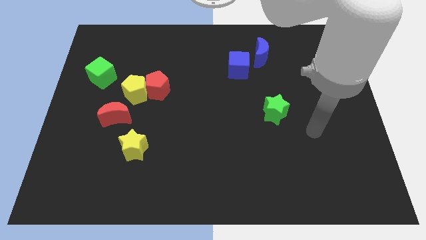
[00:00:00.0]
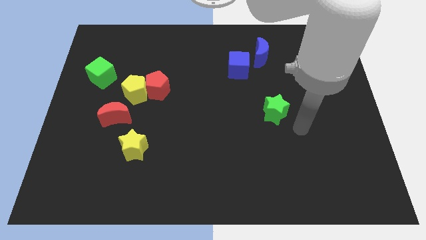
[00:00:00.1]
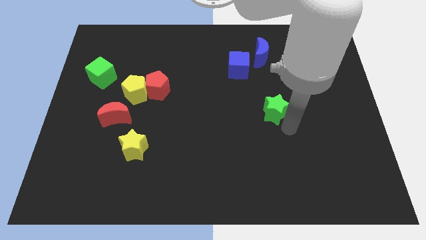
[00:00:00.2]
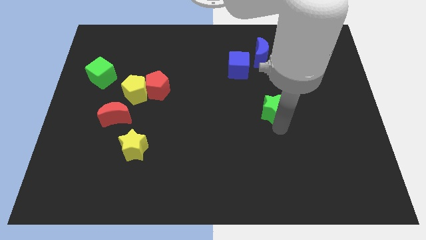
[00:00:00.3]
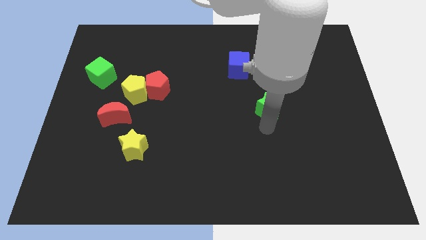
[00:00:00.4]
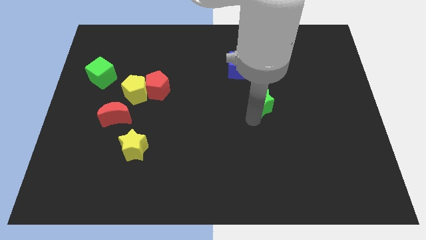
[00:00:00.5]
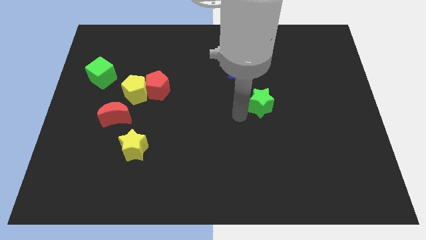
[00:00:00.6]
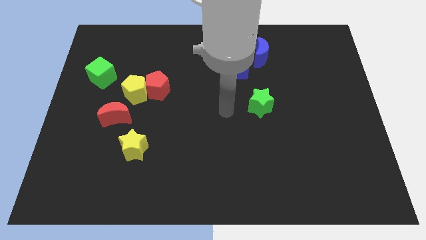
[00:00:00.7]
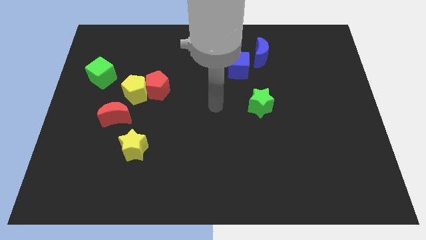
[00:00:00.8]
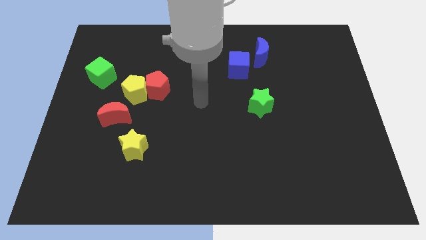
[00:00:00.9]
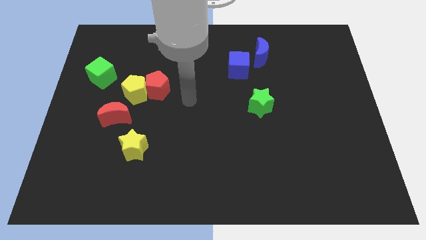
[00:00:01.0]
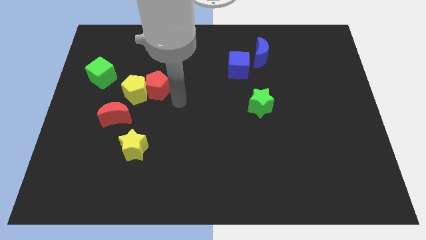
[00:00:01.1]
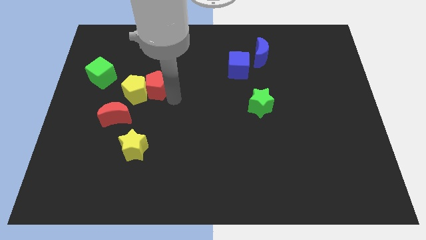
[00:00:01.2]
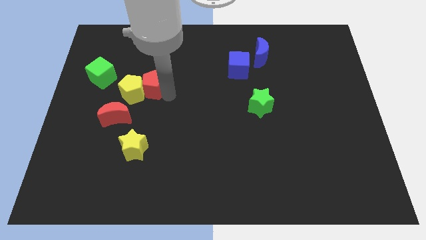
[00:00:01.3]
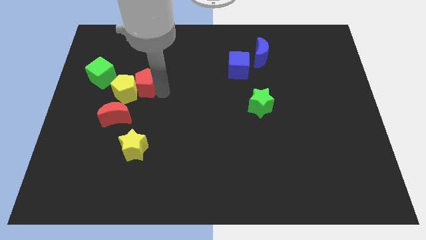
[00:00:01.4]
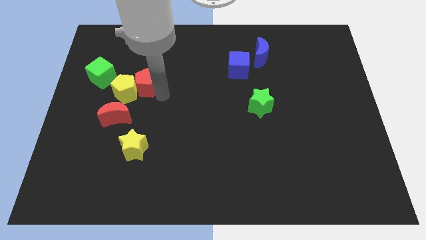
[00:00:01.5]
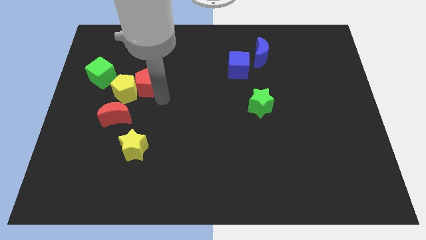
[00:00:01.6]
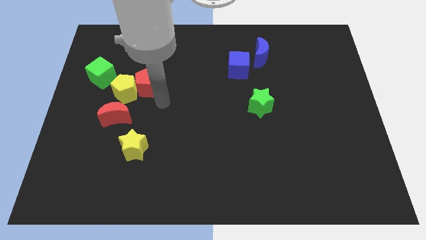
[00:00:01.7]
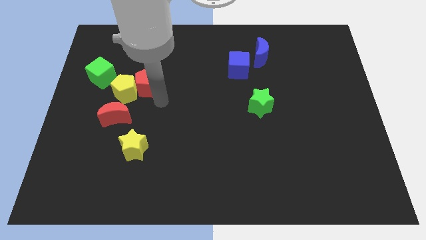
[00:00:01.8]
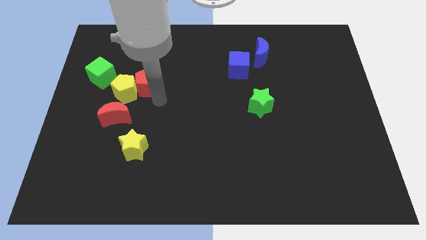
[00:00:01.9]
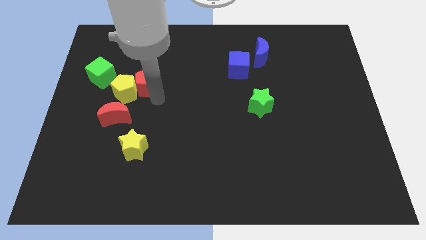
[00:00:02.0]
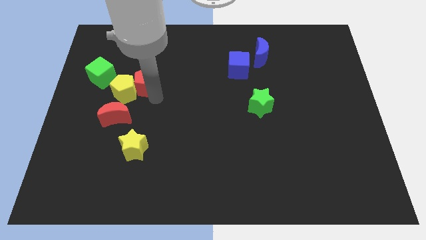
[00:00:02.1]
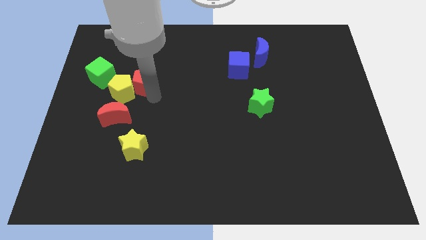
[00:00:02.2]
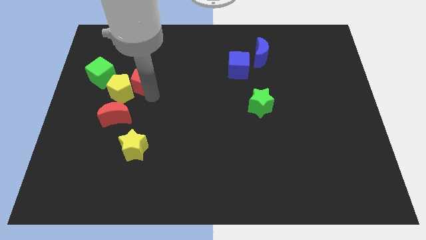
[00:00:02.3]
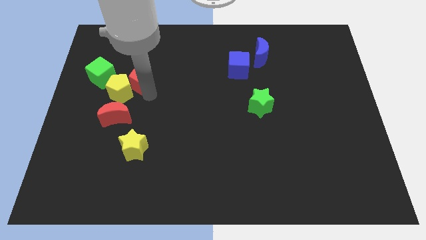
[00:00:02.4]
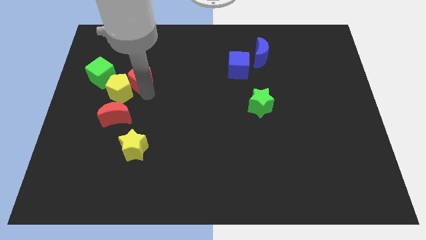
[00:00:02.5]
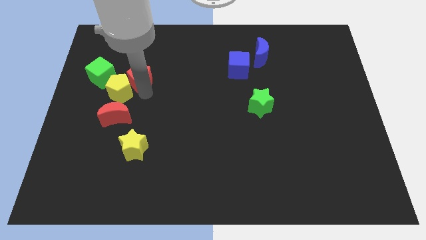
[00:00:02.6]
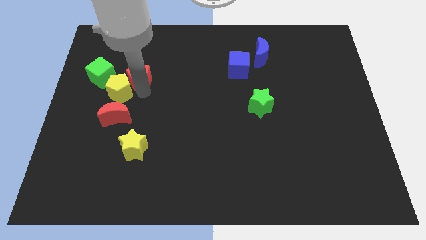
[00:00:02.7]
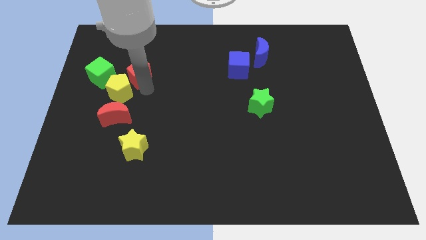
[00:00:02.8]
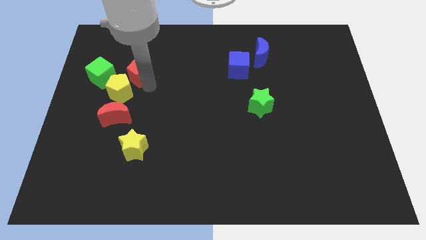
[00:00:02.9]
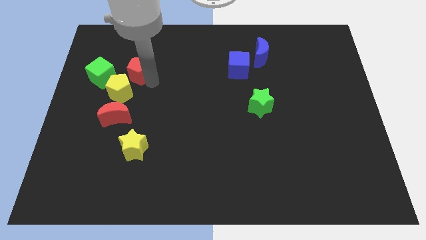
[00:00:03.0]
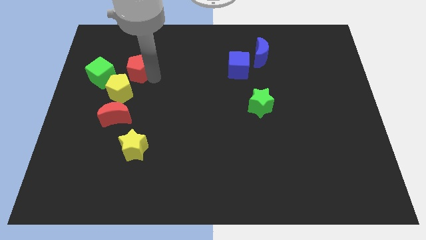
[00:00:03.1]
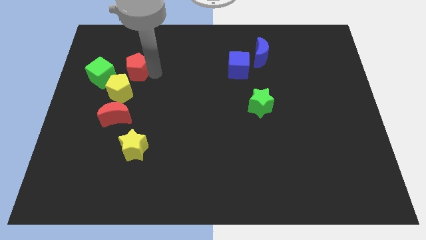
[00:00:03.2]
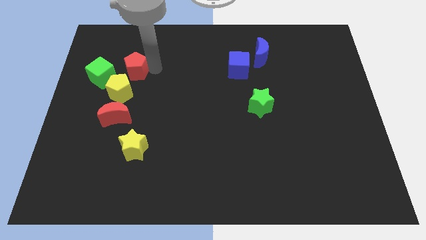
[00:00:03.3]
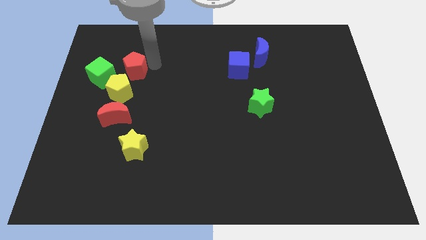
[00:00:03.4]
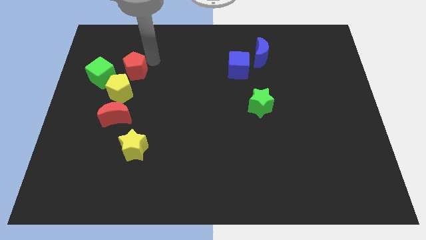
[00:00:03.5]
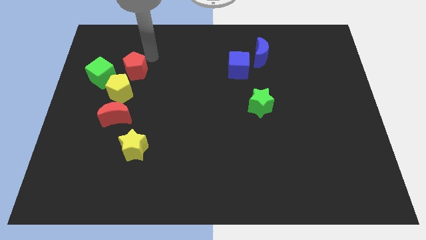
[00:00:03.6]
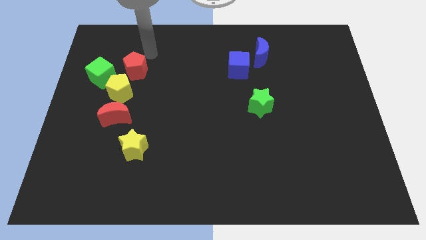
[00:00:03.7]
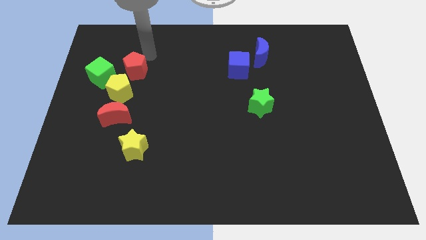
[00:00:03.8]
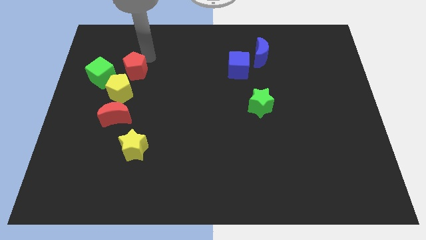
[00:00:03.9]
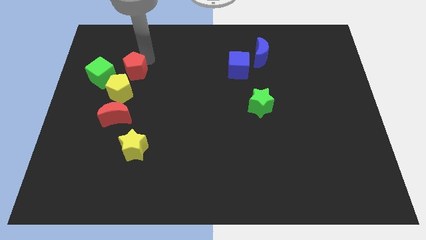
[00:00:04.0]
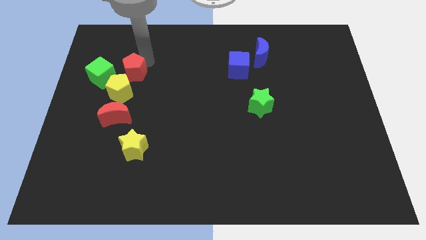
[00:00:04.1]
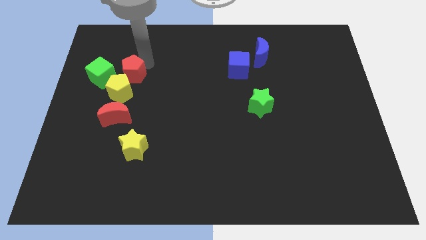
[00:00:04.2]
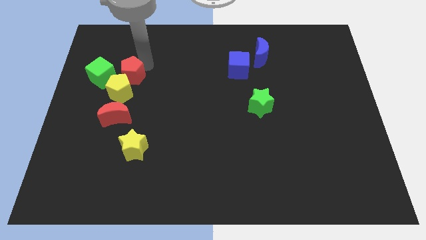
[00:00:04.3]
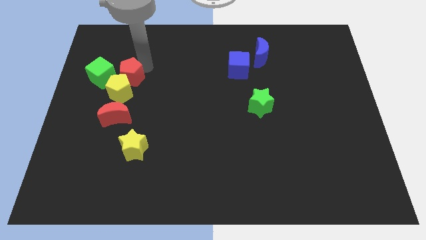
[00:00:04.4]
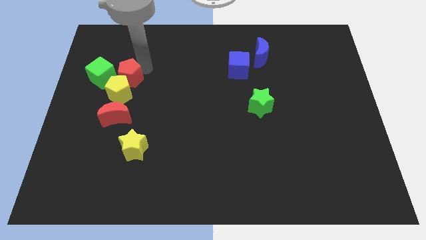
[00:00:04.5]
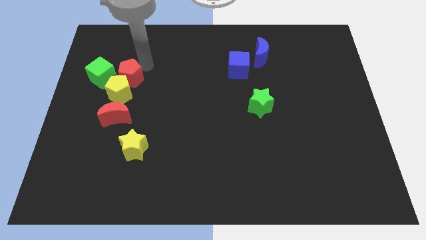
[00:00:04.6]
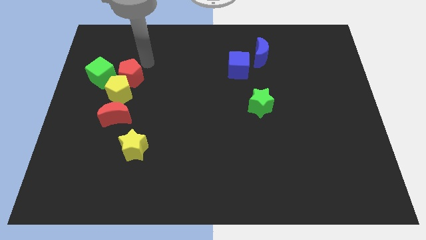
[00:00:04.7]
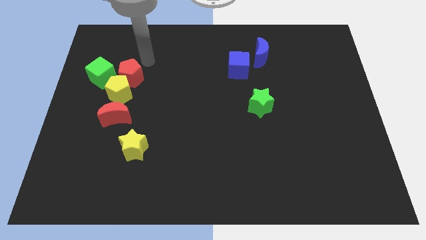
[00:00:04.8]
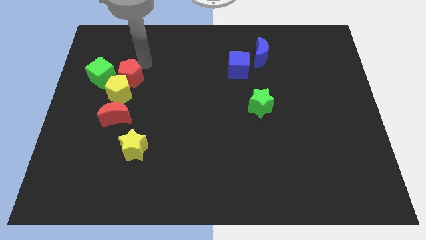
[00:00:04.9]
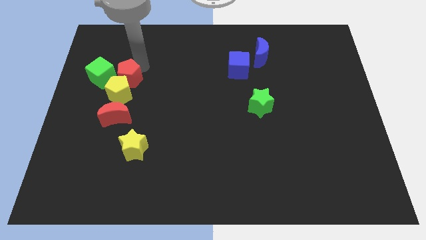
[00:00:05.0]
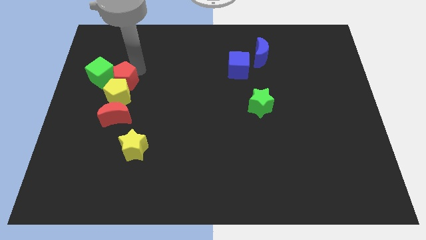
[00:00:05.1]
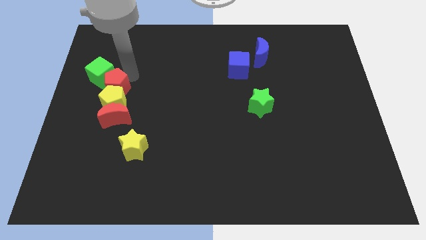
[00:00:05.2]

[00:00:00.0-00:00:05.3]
move the red pentagon to the bottom of the green cube

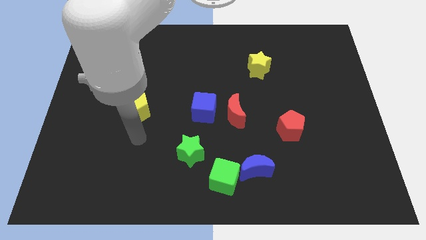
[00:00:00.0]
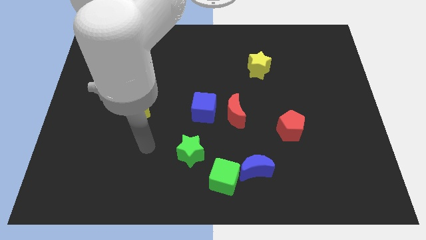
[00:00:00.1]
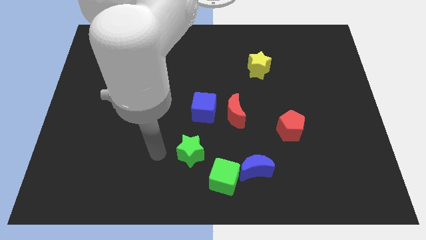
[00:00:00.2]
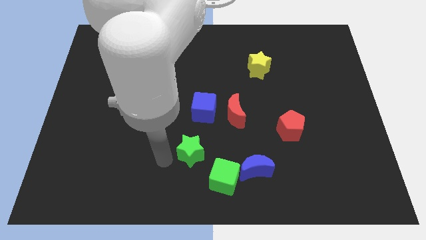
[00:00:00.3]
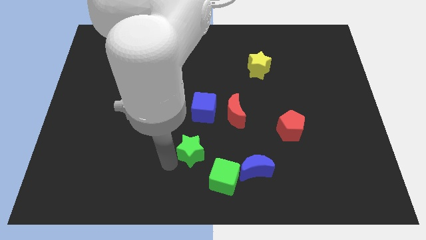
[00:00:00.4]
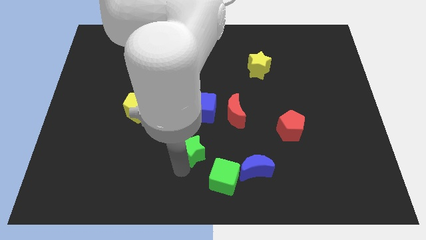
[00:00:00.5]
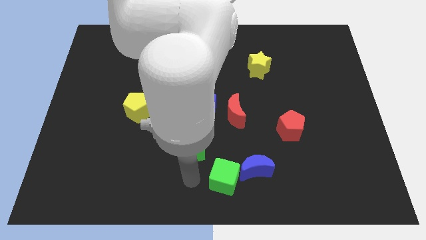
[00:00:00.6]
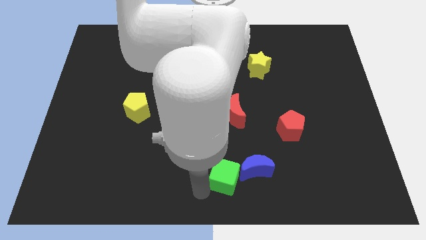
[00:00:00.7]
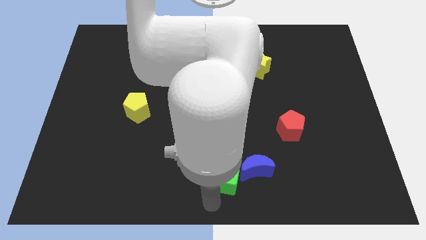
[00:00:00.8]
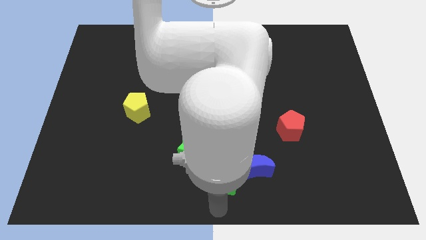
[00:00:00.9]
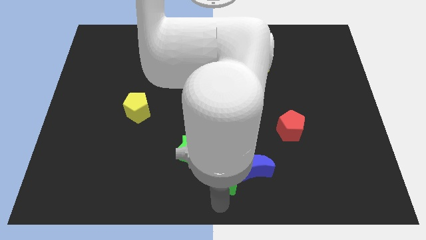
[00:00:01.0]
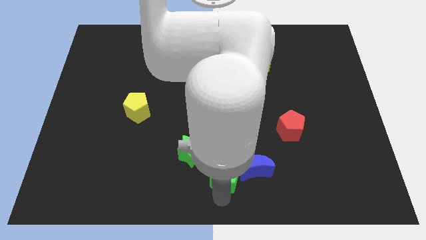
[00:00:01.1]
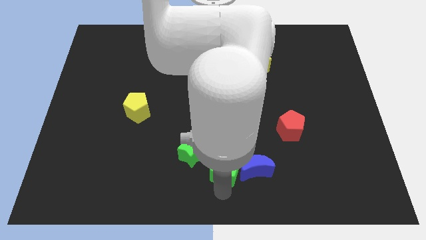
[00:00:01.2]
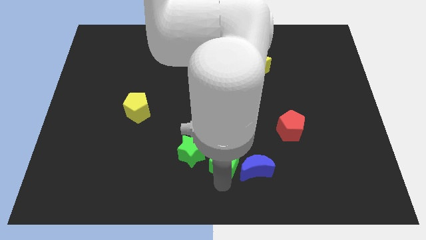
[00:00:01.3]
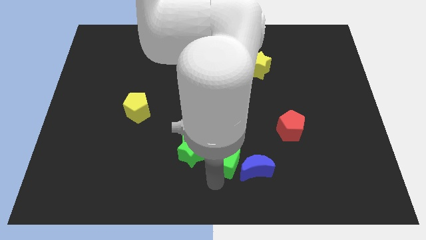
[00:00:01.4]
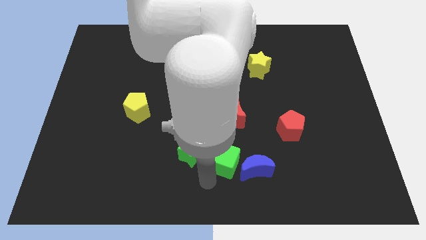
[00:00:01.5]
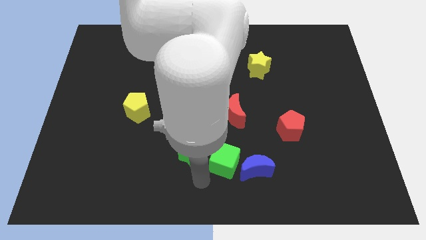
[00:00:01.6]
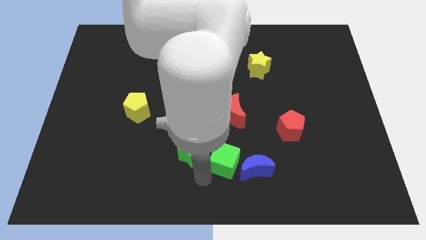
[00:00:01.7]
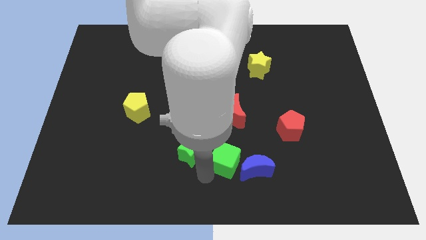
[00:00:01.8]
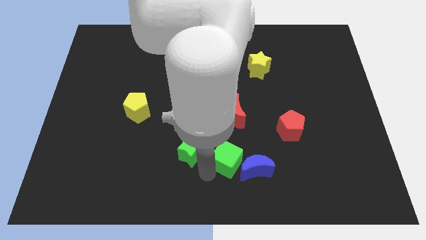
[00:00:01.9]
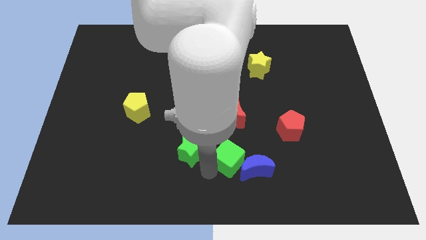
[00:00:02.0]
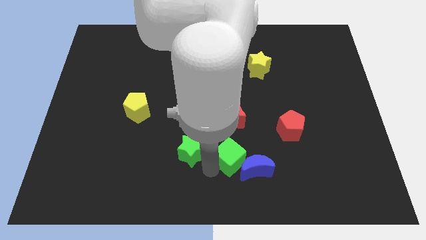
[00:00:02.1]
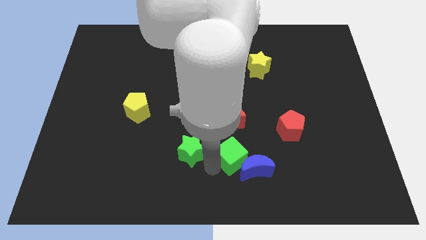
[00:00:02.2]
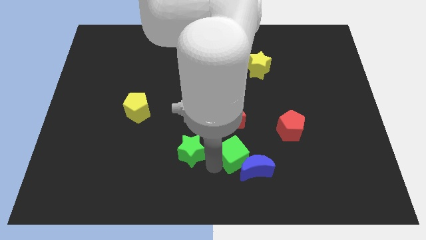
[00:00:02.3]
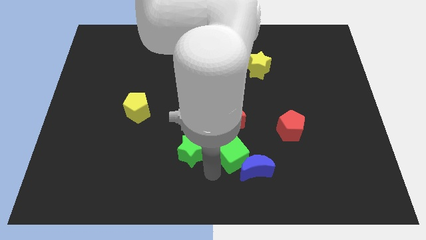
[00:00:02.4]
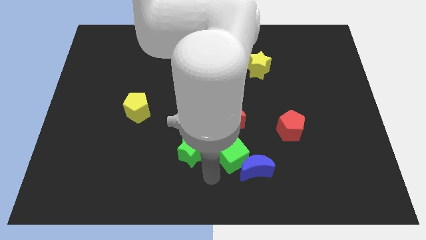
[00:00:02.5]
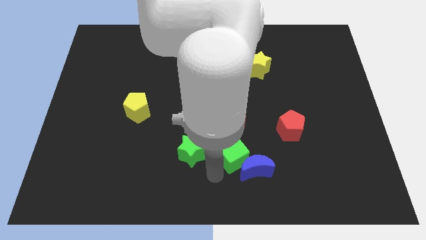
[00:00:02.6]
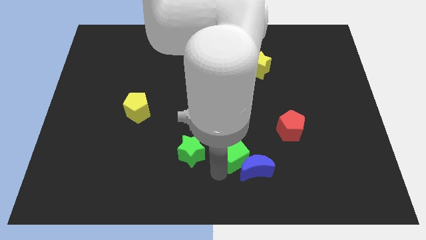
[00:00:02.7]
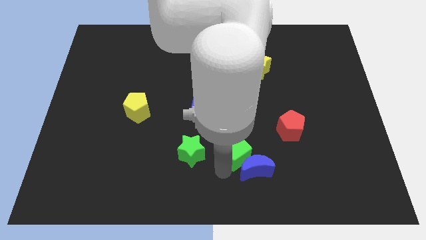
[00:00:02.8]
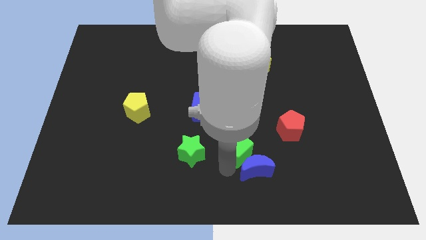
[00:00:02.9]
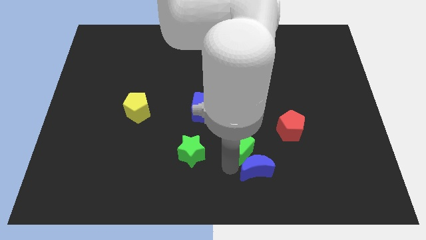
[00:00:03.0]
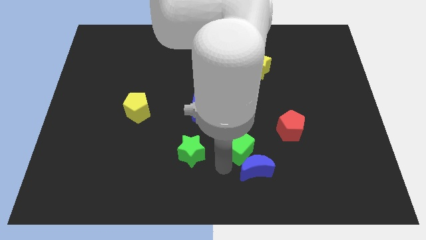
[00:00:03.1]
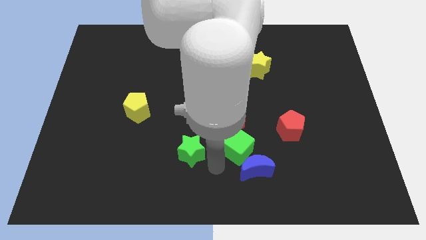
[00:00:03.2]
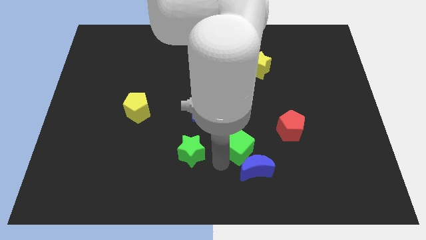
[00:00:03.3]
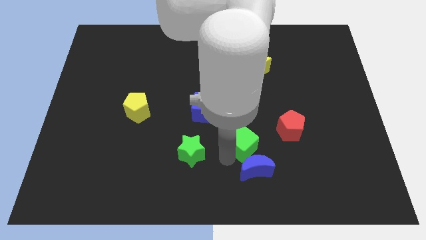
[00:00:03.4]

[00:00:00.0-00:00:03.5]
move the green cube to the bottom right of the red moon
